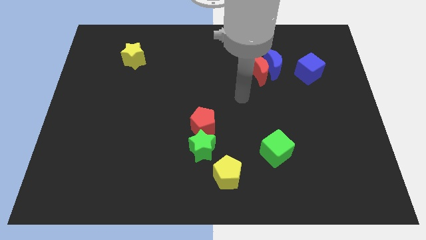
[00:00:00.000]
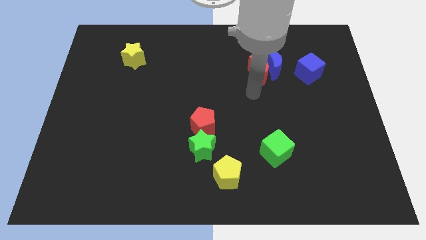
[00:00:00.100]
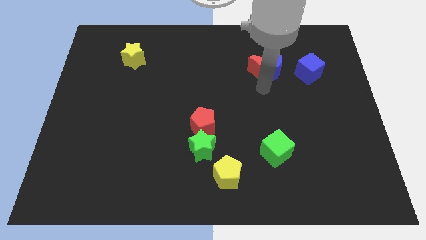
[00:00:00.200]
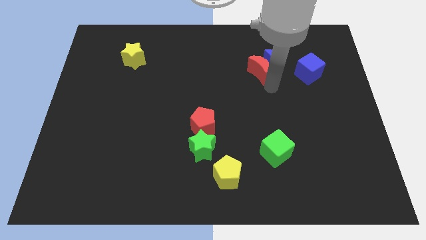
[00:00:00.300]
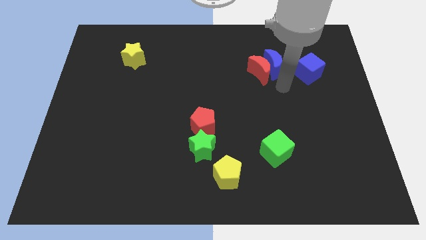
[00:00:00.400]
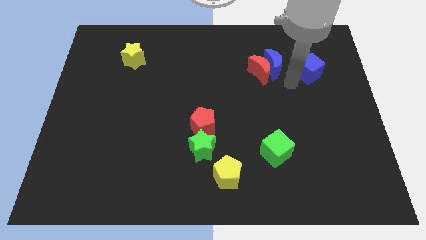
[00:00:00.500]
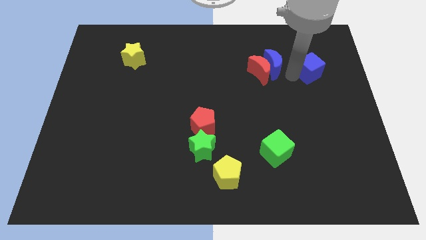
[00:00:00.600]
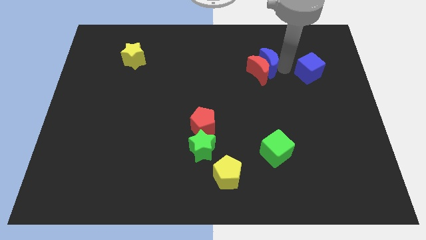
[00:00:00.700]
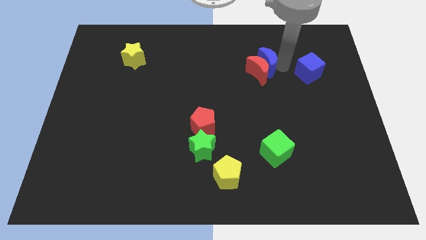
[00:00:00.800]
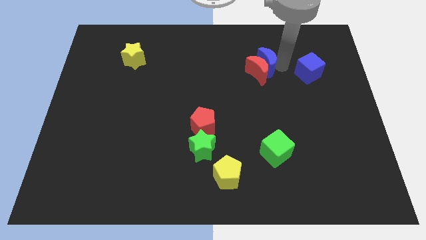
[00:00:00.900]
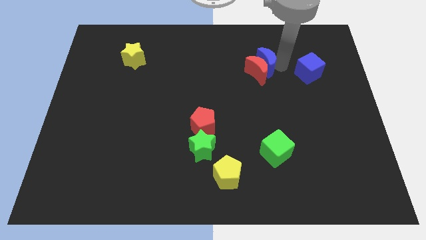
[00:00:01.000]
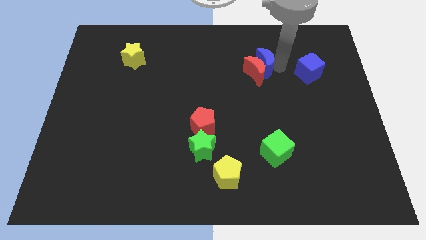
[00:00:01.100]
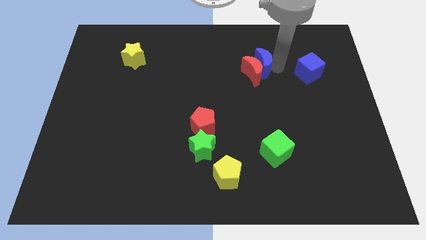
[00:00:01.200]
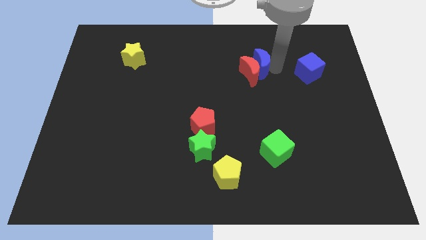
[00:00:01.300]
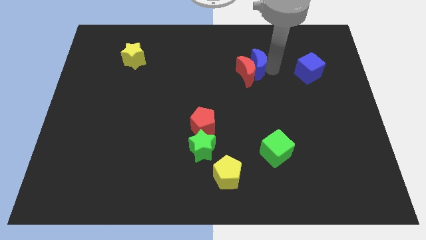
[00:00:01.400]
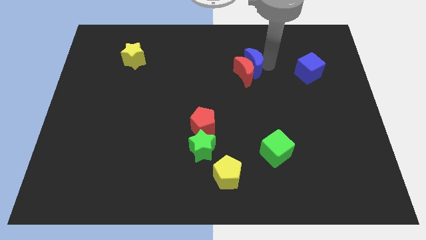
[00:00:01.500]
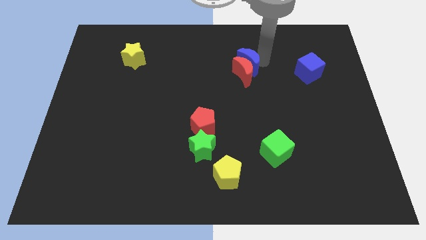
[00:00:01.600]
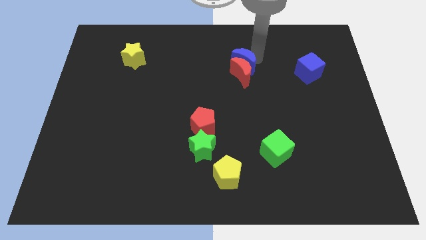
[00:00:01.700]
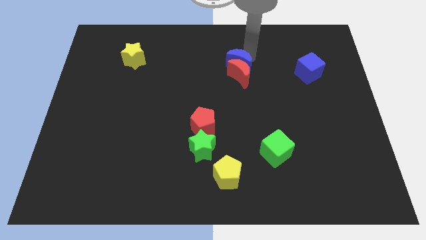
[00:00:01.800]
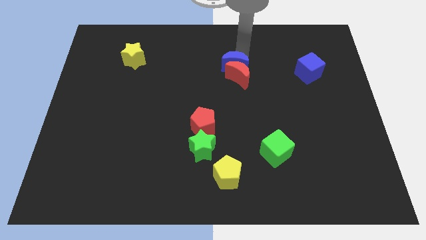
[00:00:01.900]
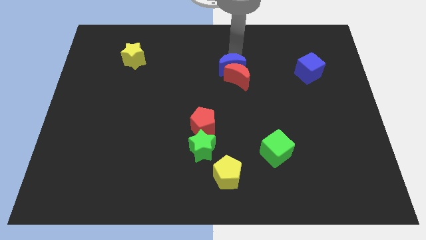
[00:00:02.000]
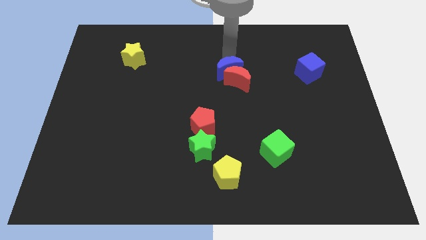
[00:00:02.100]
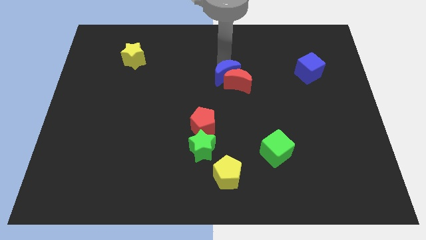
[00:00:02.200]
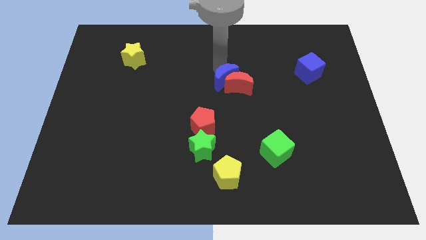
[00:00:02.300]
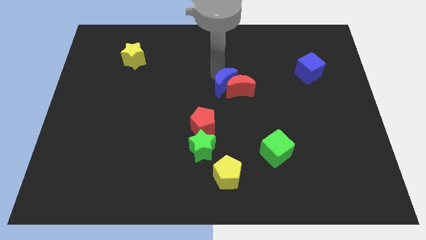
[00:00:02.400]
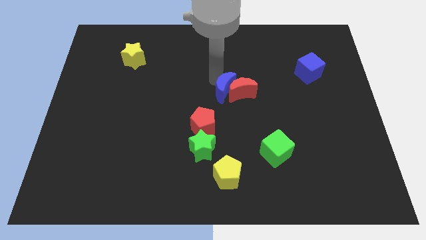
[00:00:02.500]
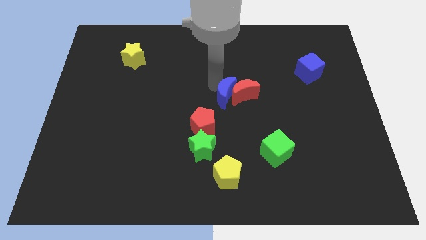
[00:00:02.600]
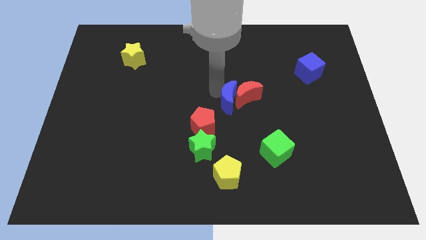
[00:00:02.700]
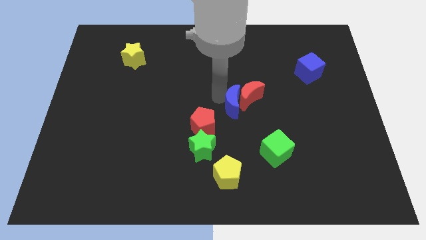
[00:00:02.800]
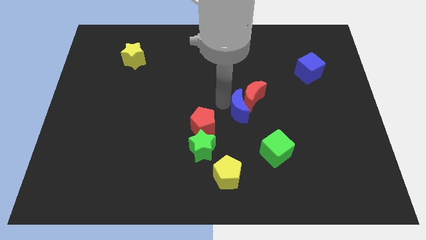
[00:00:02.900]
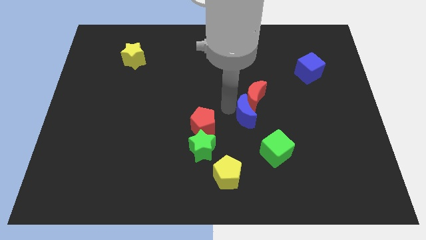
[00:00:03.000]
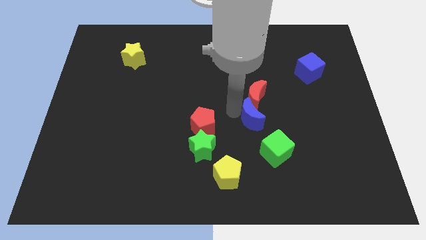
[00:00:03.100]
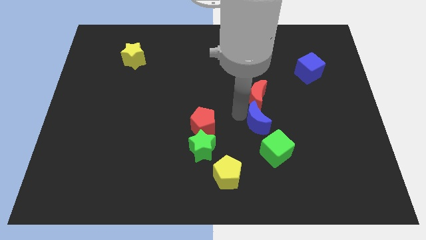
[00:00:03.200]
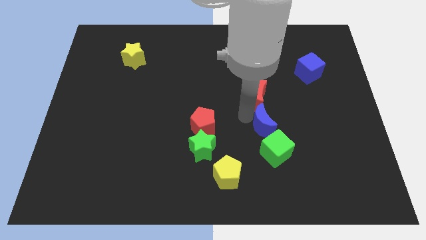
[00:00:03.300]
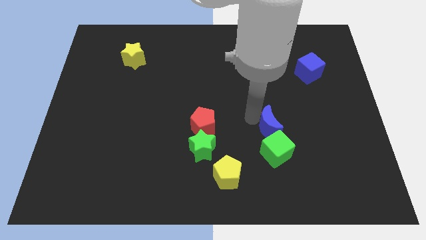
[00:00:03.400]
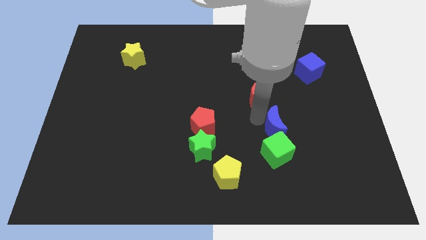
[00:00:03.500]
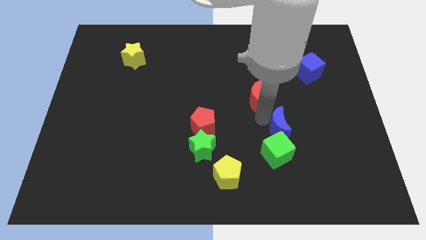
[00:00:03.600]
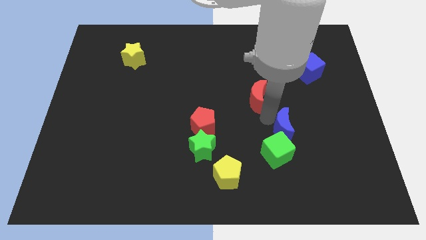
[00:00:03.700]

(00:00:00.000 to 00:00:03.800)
move the red moon away from the blue moon

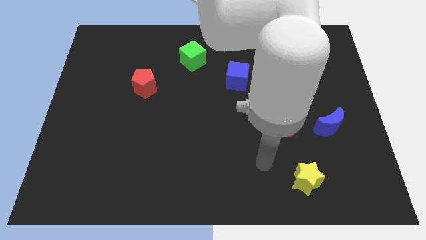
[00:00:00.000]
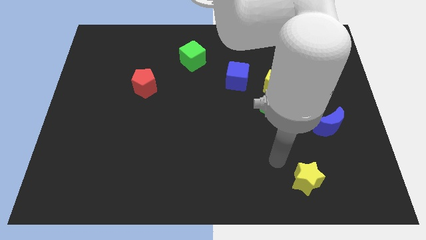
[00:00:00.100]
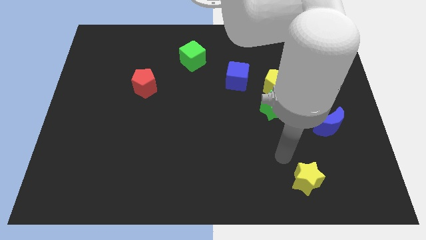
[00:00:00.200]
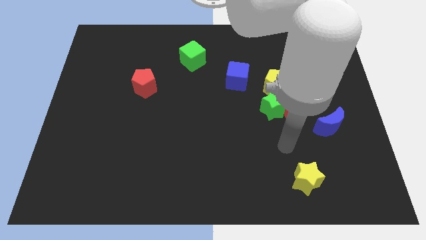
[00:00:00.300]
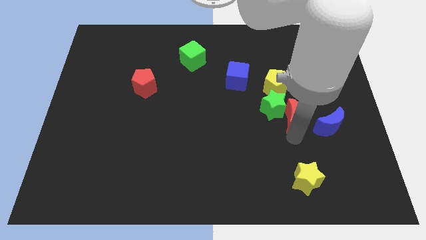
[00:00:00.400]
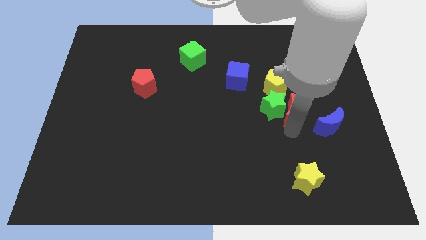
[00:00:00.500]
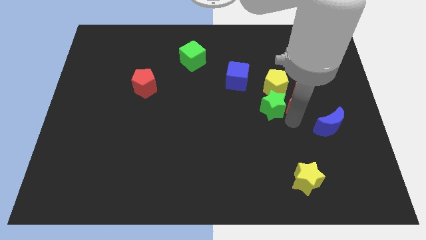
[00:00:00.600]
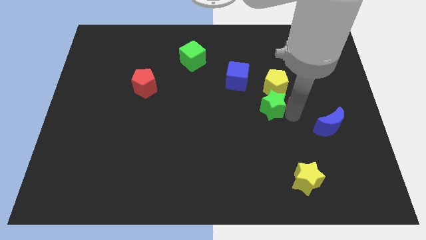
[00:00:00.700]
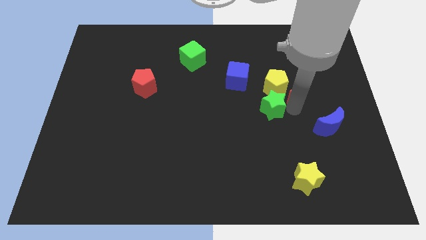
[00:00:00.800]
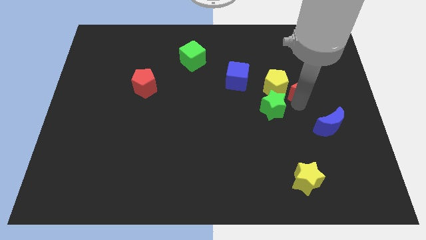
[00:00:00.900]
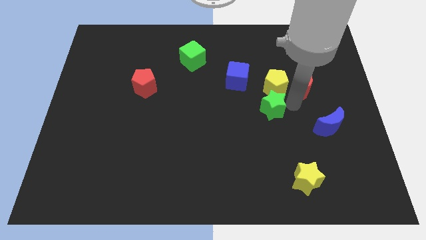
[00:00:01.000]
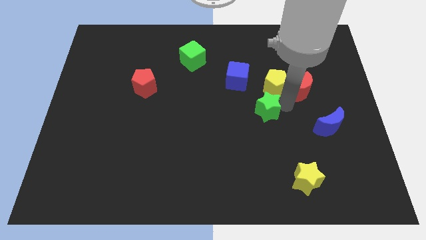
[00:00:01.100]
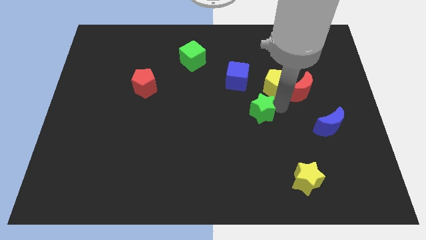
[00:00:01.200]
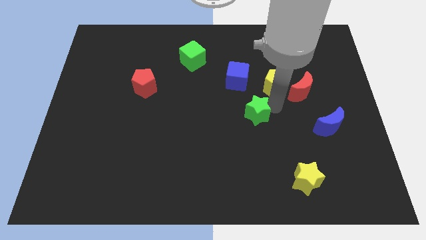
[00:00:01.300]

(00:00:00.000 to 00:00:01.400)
separate the green star from the red moon and yellow pentagon

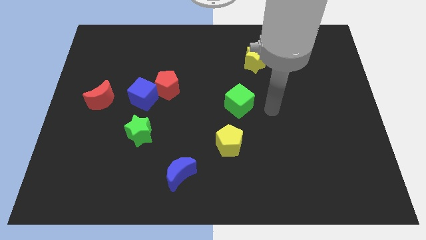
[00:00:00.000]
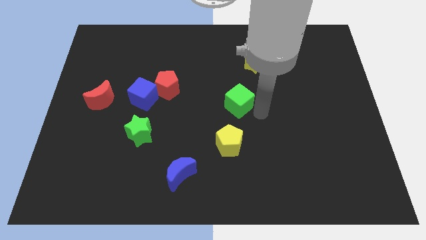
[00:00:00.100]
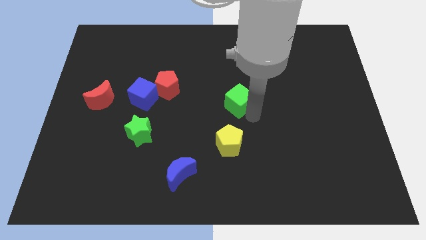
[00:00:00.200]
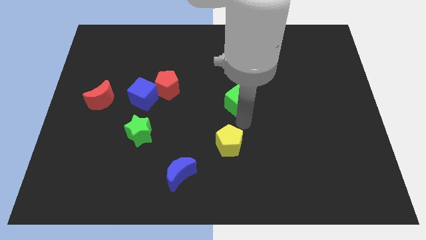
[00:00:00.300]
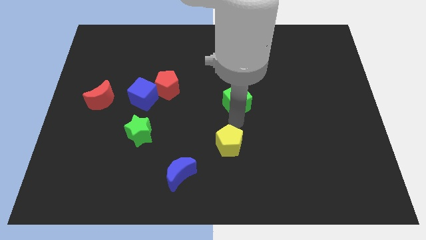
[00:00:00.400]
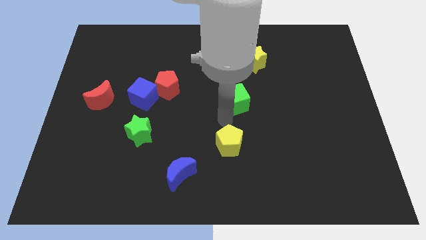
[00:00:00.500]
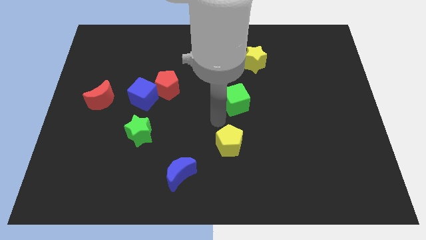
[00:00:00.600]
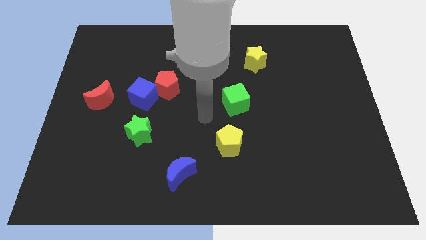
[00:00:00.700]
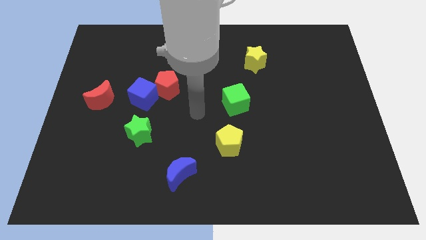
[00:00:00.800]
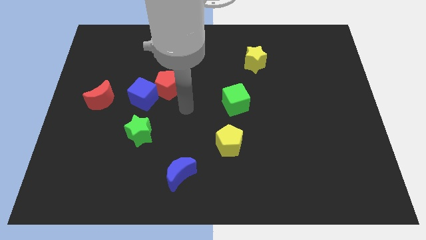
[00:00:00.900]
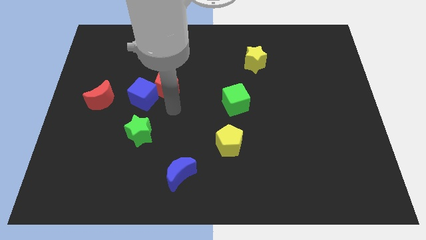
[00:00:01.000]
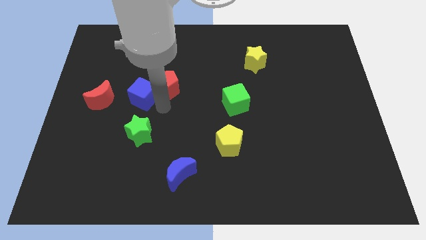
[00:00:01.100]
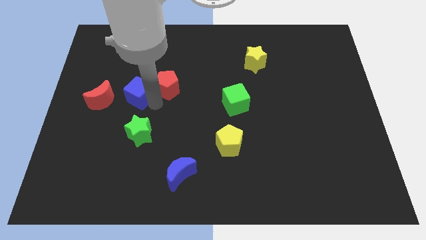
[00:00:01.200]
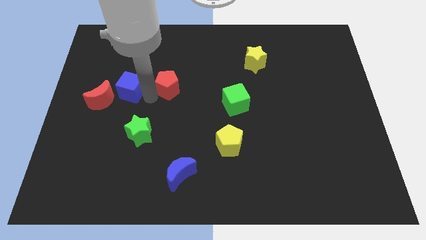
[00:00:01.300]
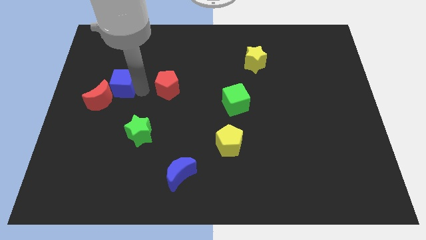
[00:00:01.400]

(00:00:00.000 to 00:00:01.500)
separate the red pentagon from the blue cube

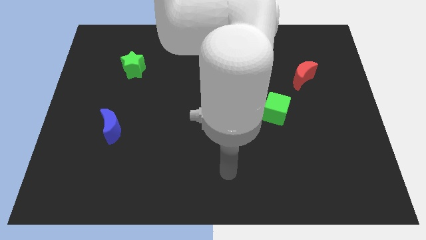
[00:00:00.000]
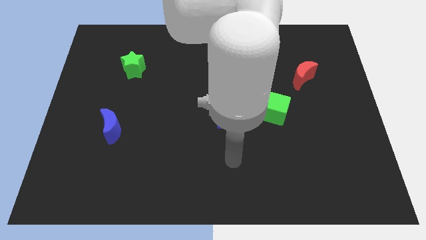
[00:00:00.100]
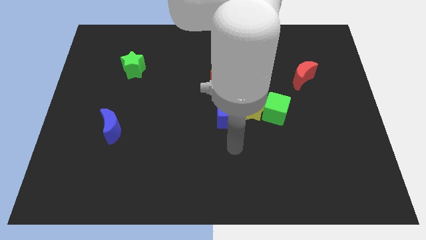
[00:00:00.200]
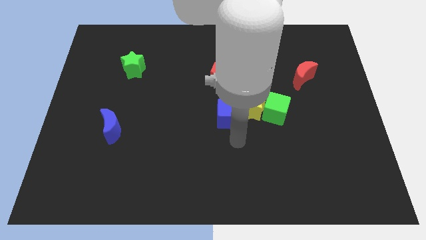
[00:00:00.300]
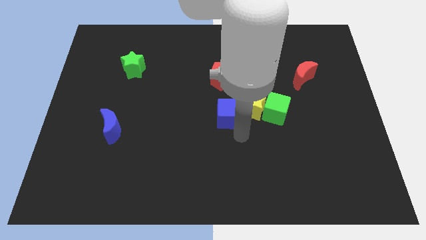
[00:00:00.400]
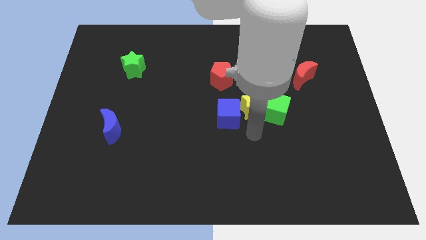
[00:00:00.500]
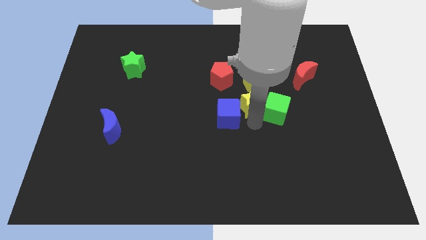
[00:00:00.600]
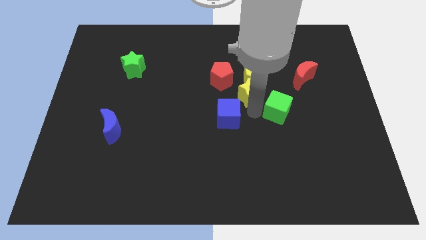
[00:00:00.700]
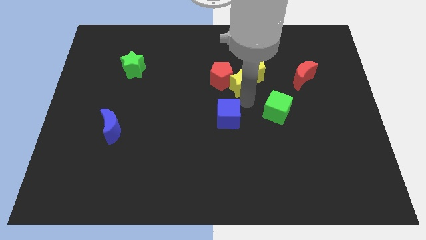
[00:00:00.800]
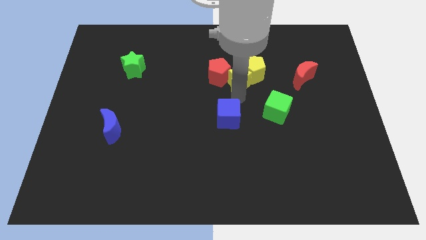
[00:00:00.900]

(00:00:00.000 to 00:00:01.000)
separate the blue cube from the yellow star

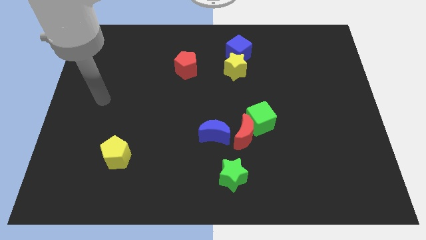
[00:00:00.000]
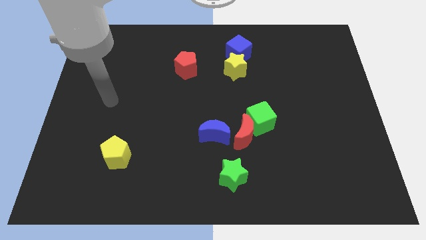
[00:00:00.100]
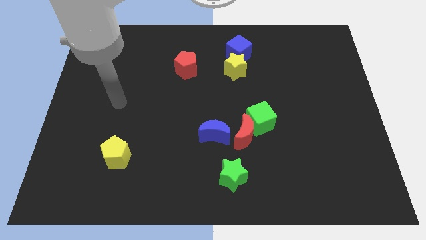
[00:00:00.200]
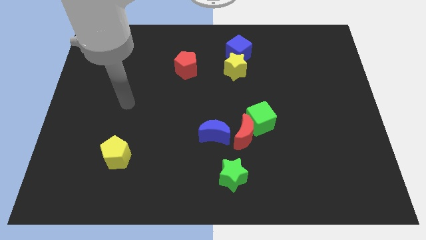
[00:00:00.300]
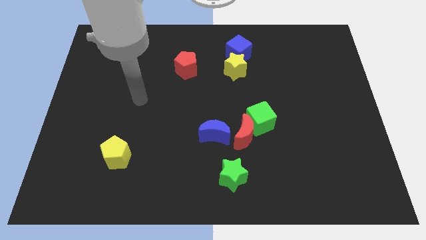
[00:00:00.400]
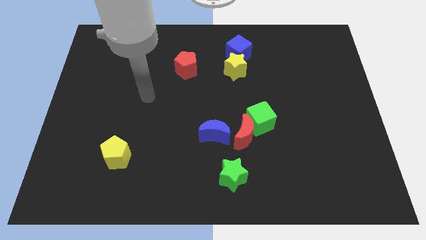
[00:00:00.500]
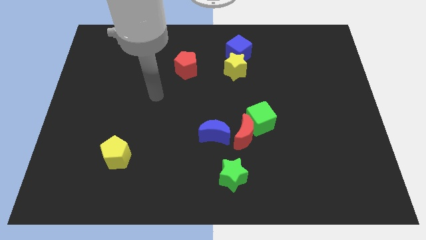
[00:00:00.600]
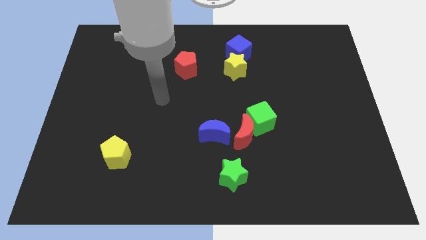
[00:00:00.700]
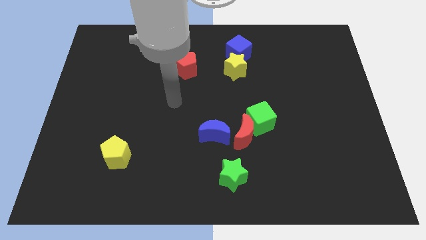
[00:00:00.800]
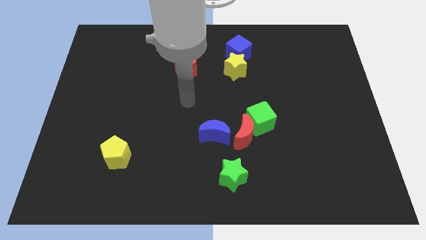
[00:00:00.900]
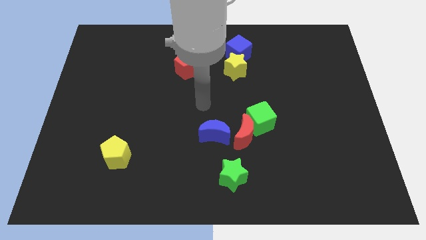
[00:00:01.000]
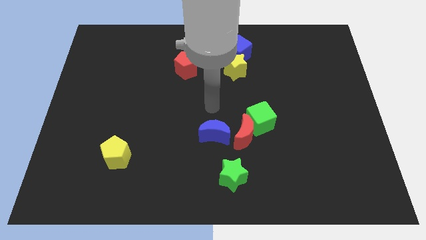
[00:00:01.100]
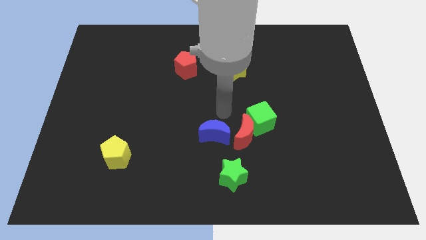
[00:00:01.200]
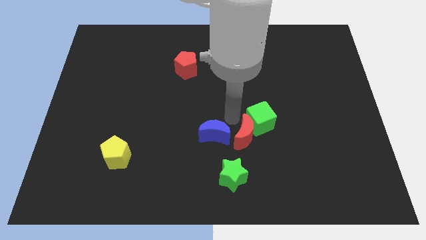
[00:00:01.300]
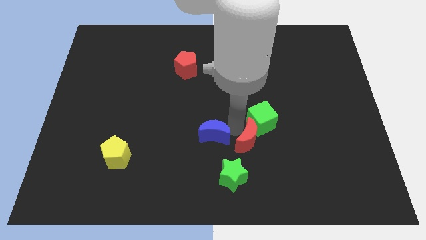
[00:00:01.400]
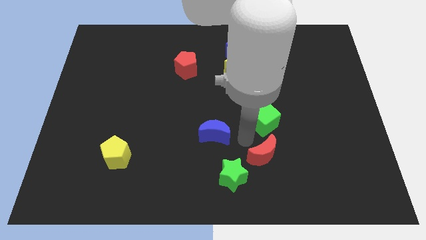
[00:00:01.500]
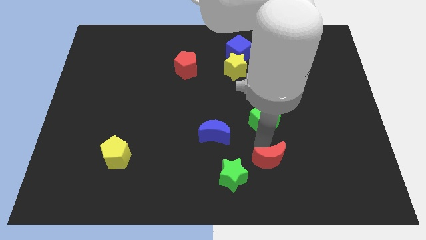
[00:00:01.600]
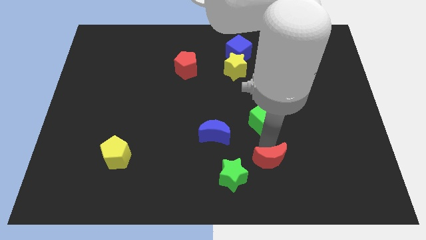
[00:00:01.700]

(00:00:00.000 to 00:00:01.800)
move the green cube away from the red moon
